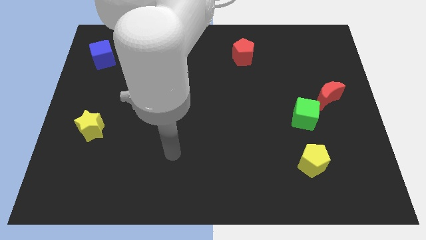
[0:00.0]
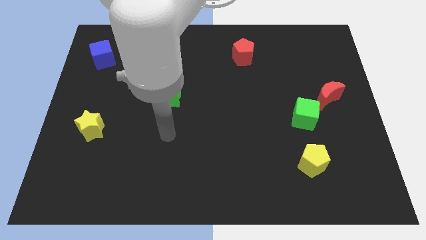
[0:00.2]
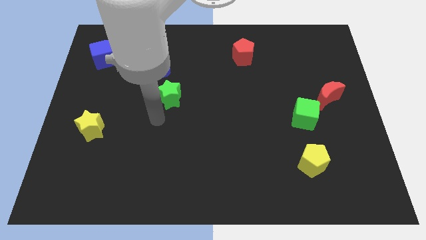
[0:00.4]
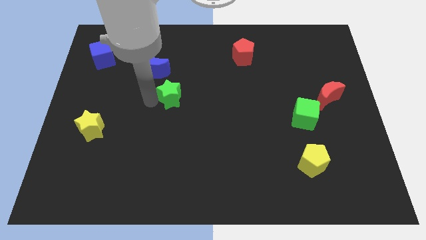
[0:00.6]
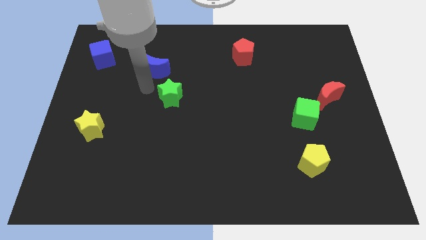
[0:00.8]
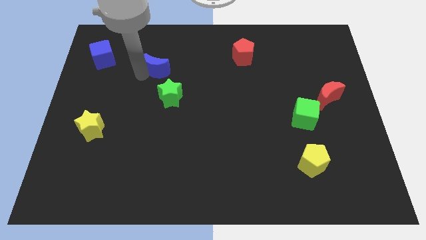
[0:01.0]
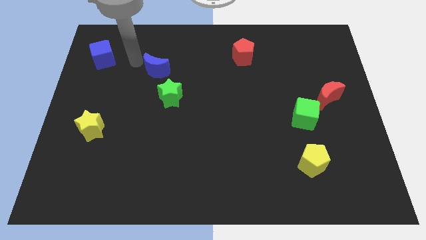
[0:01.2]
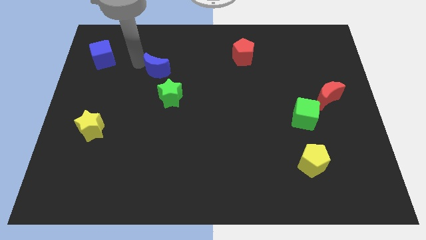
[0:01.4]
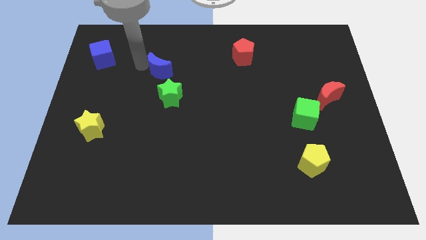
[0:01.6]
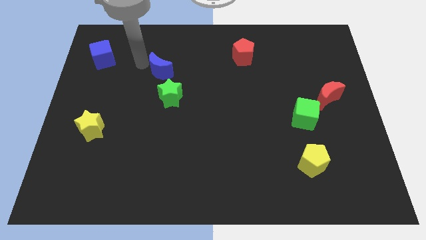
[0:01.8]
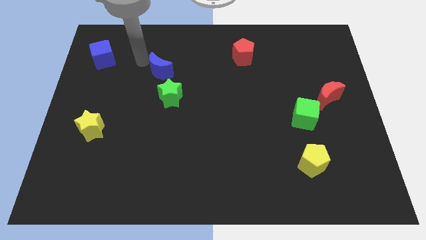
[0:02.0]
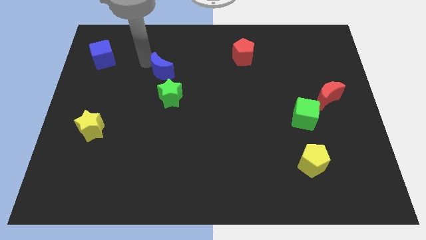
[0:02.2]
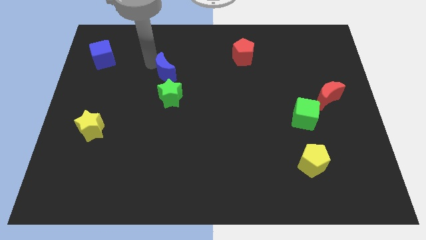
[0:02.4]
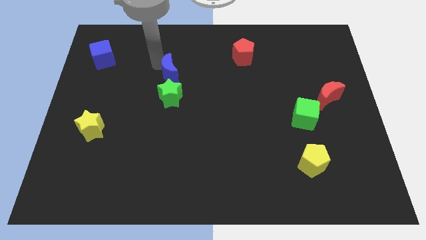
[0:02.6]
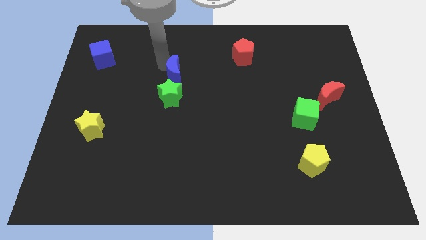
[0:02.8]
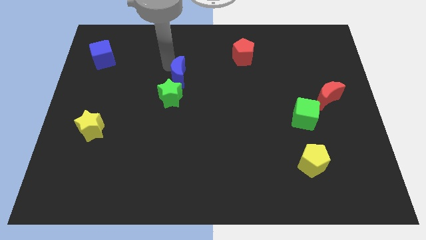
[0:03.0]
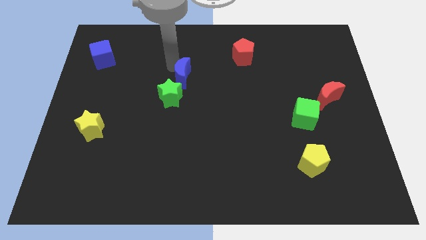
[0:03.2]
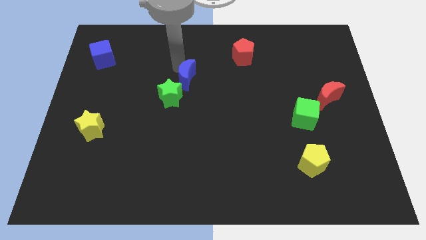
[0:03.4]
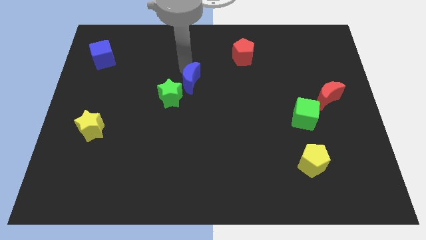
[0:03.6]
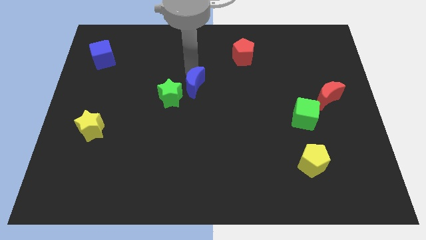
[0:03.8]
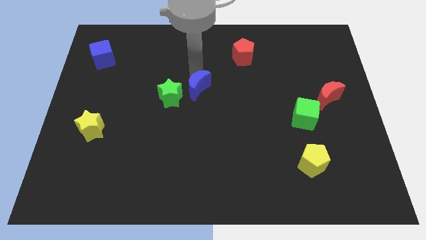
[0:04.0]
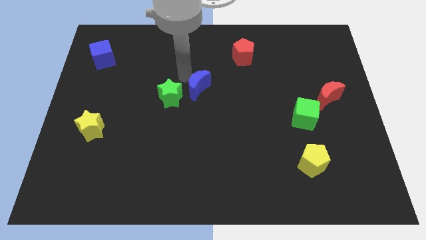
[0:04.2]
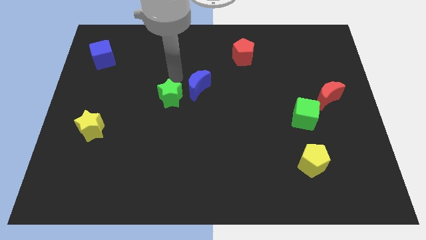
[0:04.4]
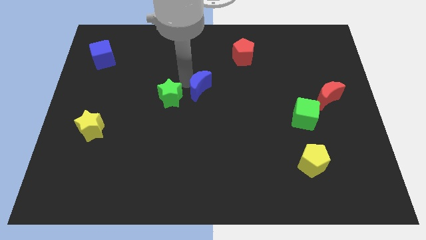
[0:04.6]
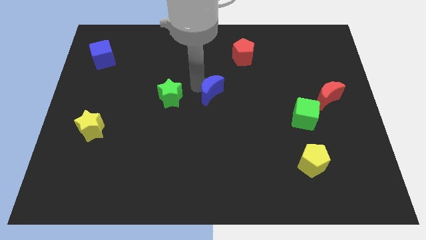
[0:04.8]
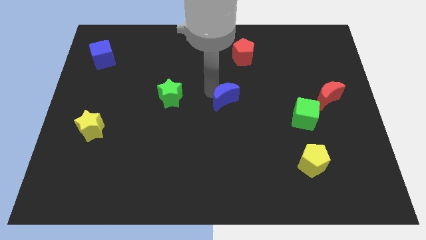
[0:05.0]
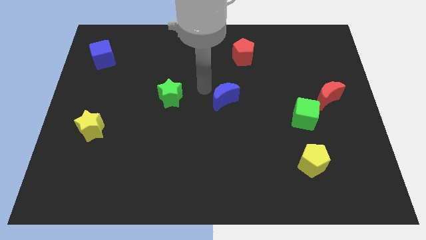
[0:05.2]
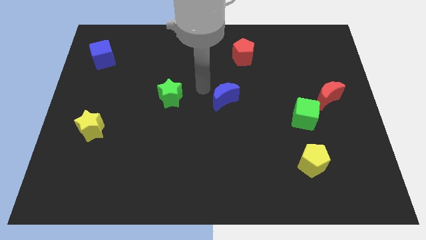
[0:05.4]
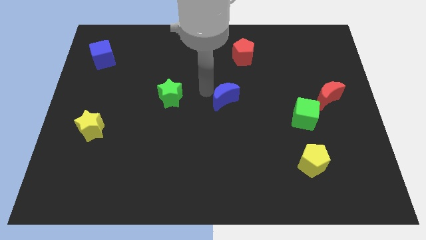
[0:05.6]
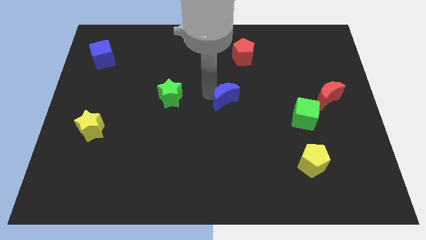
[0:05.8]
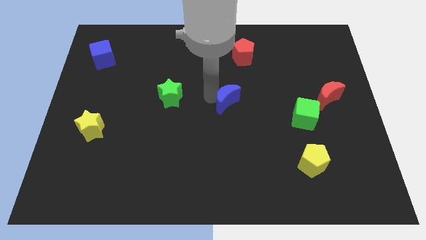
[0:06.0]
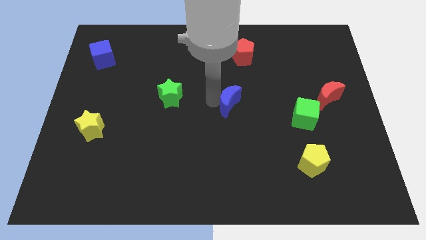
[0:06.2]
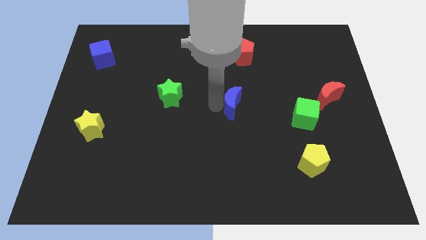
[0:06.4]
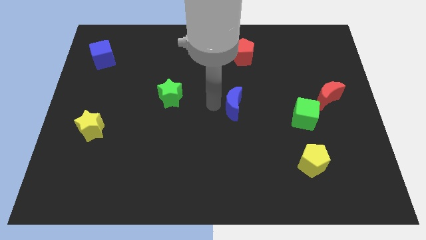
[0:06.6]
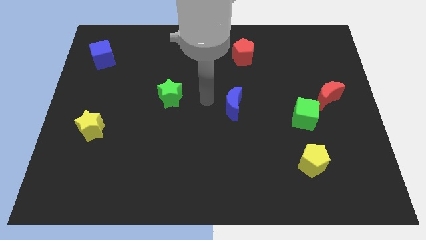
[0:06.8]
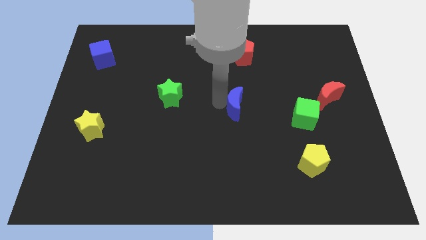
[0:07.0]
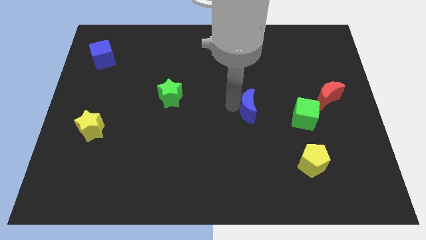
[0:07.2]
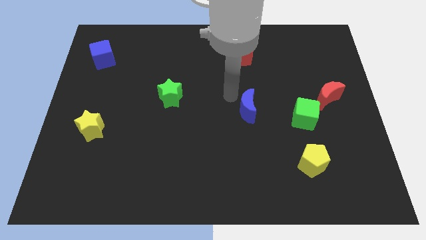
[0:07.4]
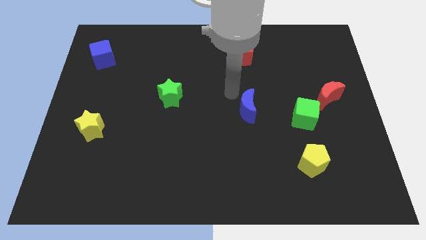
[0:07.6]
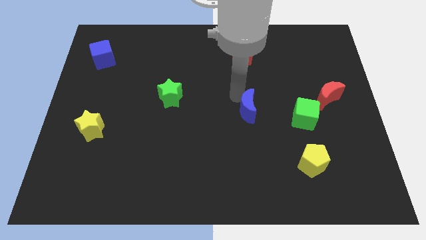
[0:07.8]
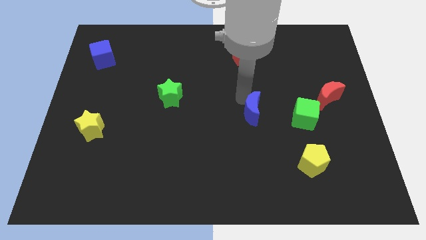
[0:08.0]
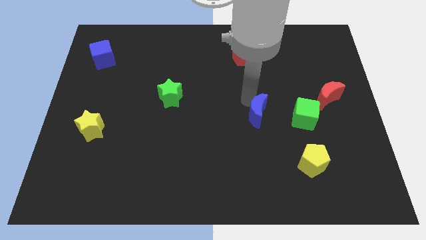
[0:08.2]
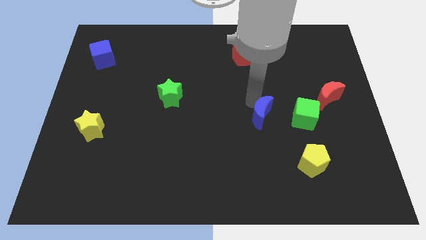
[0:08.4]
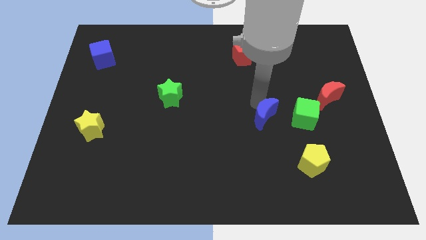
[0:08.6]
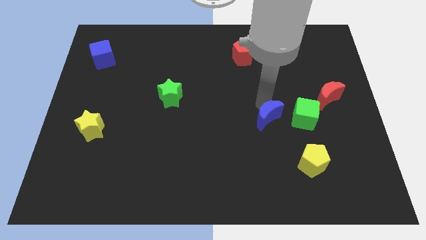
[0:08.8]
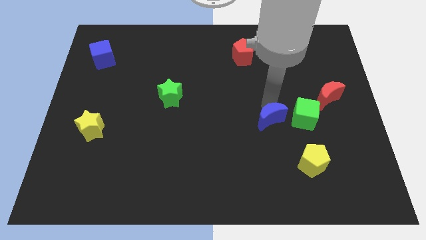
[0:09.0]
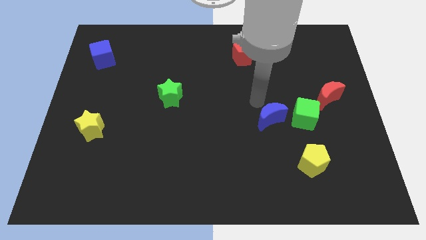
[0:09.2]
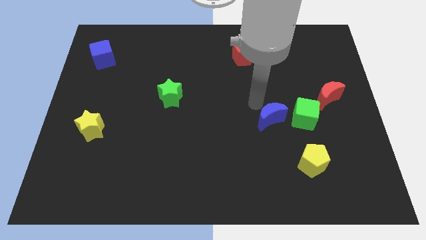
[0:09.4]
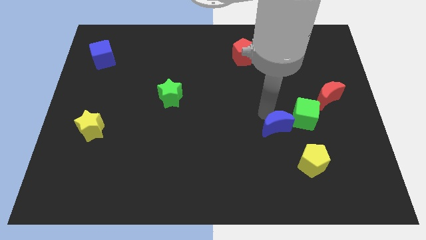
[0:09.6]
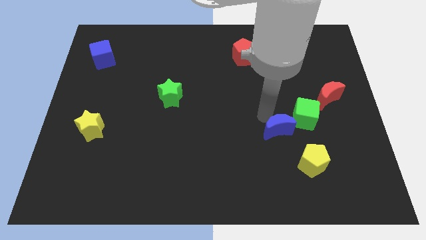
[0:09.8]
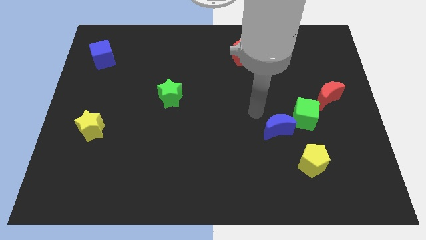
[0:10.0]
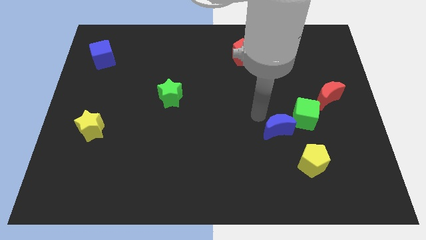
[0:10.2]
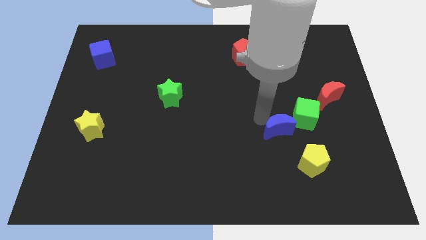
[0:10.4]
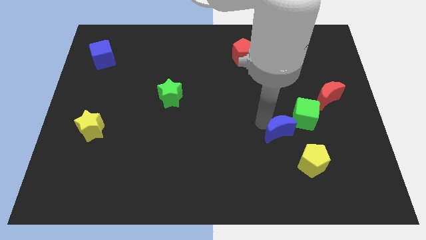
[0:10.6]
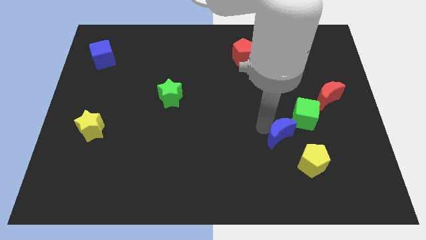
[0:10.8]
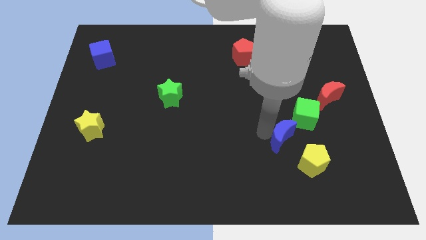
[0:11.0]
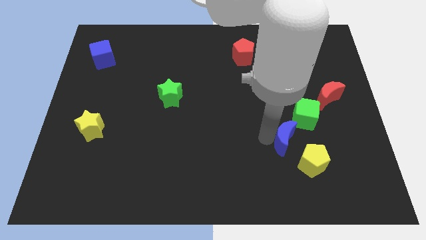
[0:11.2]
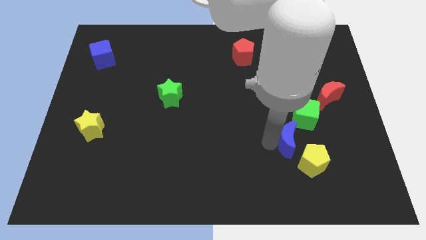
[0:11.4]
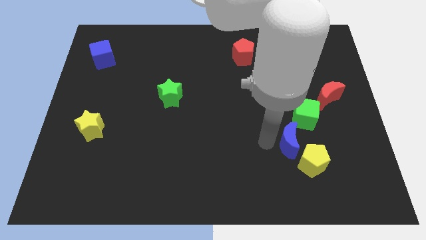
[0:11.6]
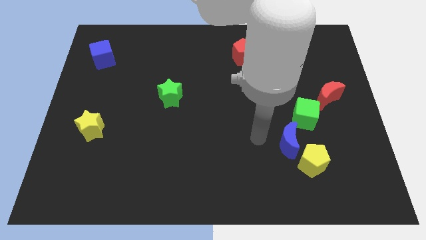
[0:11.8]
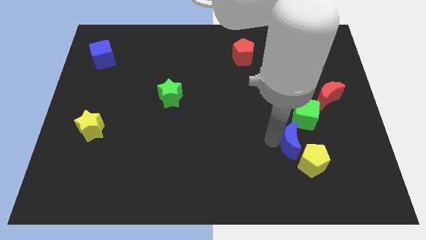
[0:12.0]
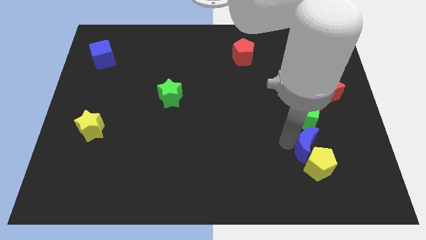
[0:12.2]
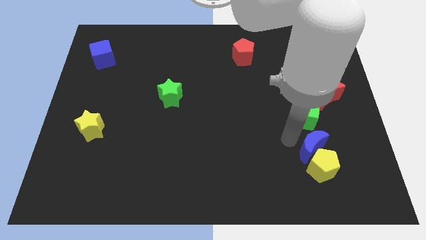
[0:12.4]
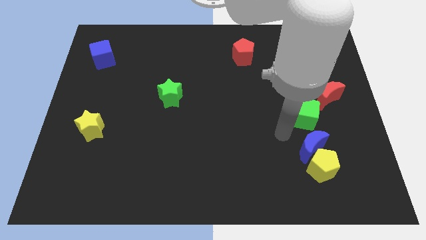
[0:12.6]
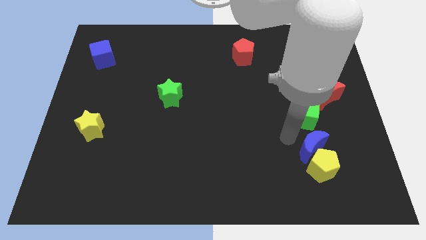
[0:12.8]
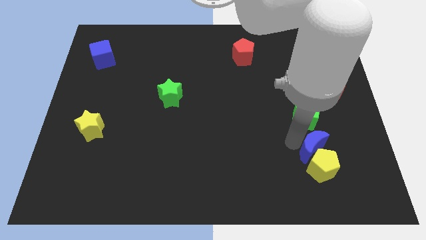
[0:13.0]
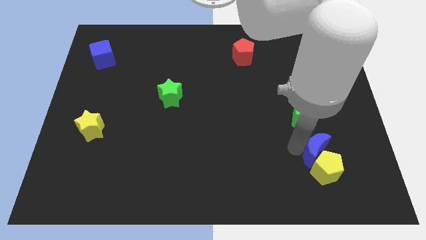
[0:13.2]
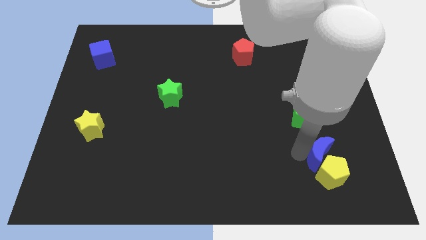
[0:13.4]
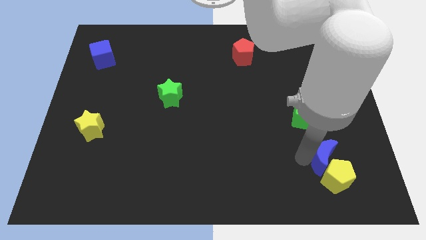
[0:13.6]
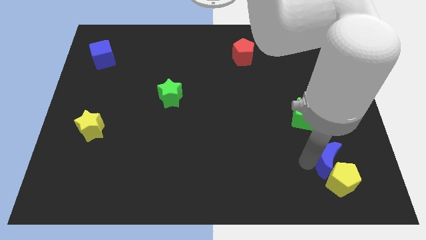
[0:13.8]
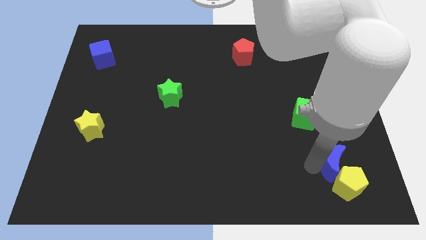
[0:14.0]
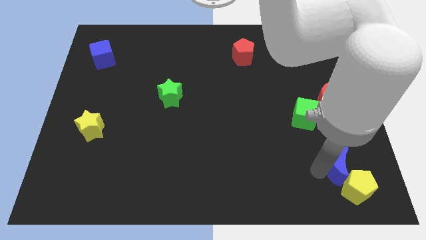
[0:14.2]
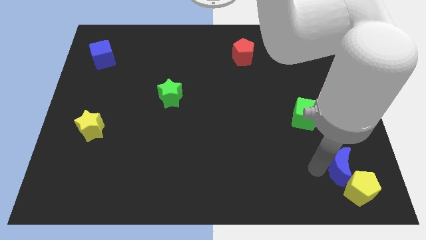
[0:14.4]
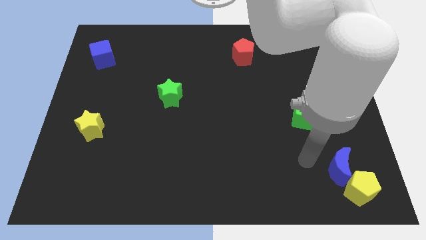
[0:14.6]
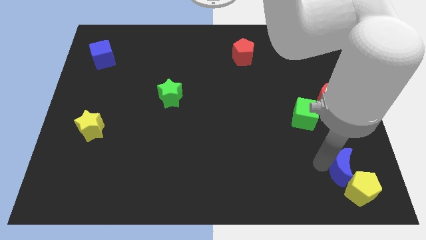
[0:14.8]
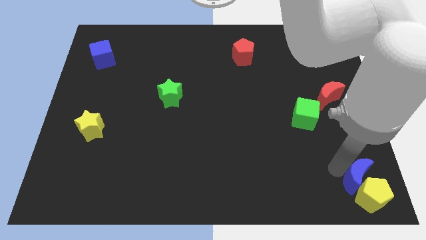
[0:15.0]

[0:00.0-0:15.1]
move the blue moon to the bottom right of the board
